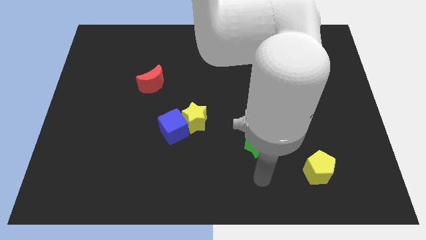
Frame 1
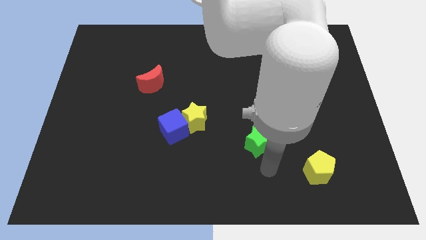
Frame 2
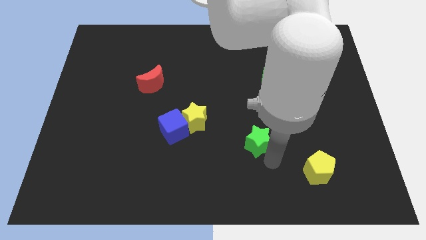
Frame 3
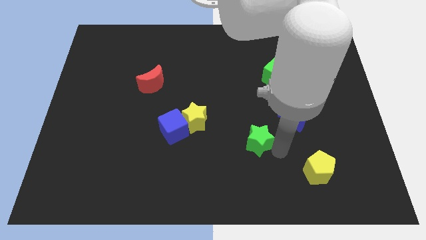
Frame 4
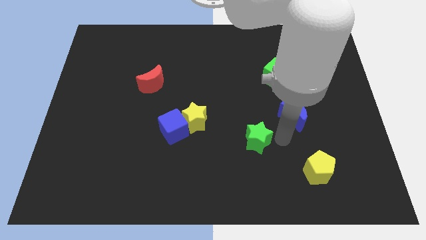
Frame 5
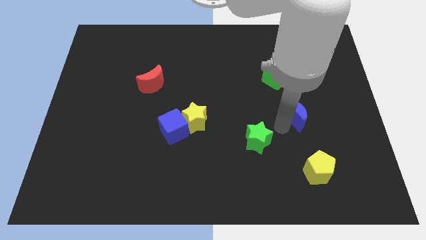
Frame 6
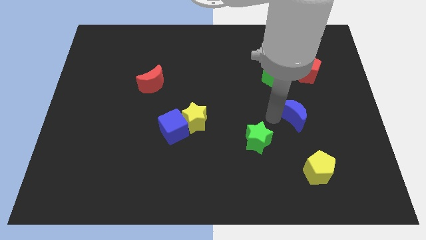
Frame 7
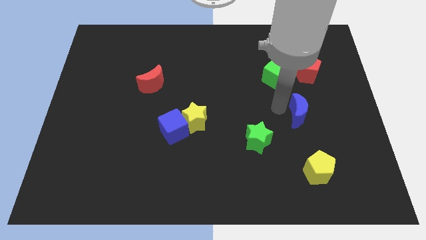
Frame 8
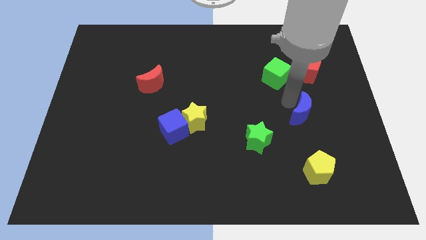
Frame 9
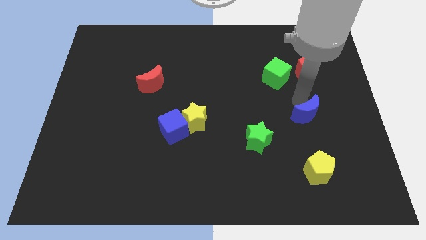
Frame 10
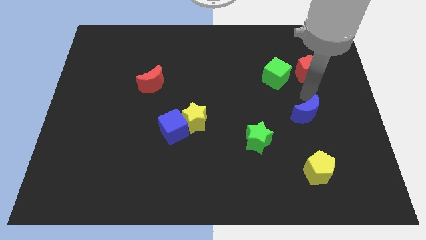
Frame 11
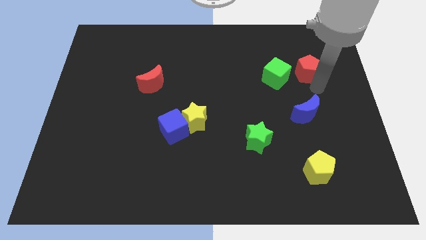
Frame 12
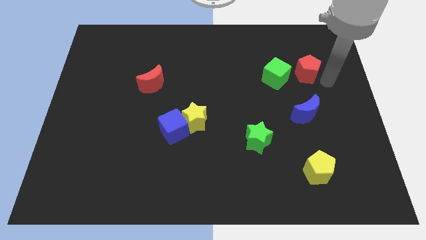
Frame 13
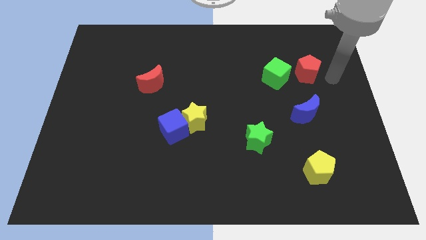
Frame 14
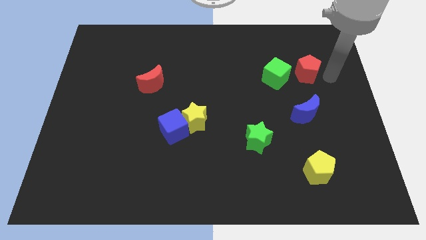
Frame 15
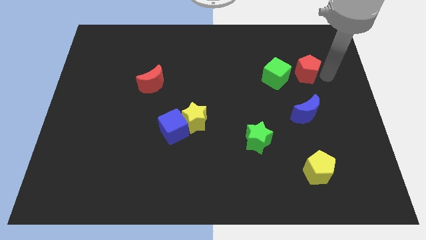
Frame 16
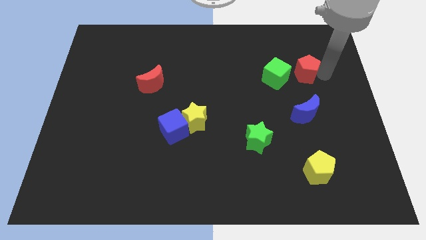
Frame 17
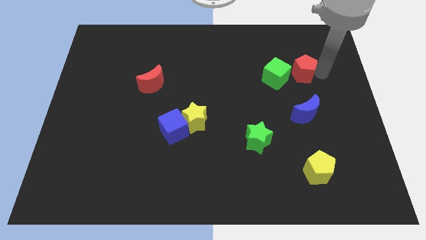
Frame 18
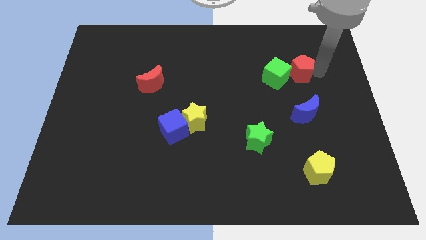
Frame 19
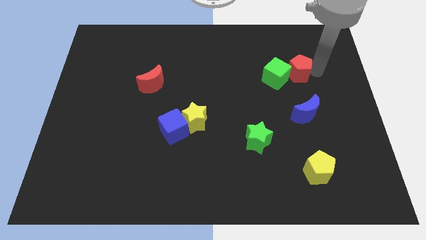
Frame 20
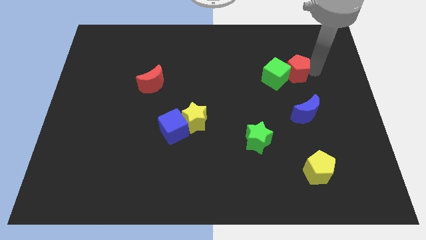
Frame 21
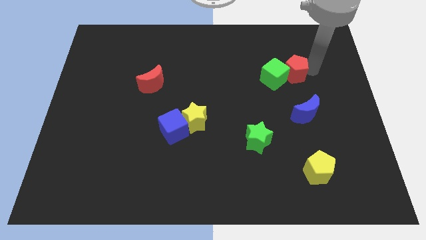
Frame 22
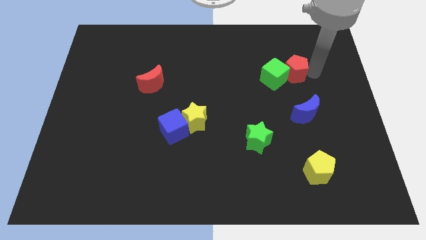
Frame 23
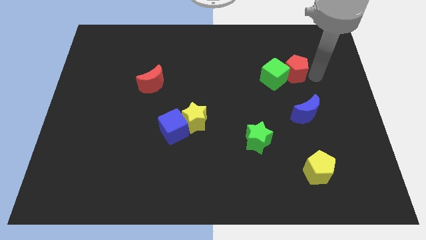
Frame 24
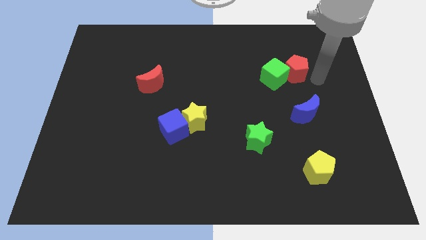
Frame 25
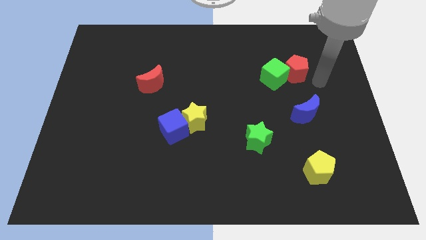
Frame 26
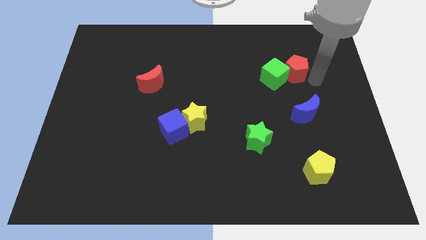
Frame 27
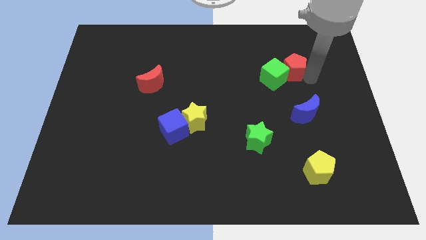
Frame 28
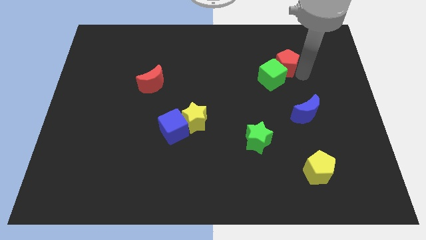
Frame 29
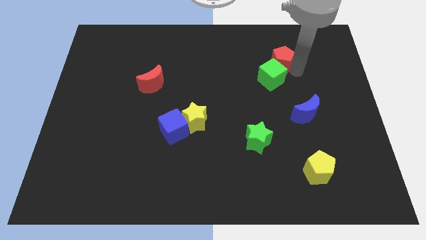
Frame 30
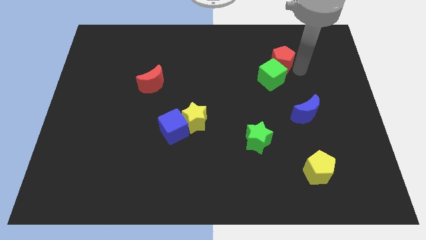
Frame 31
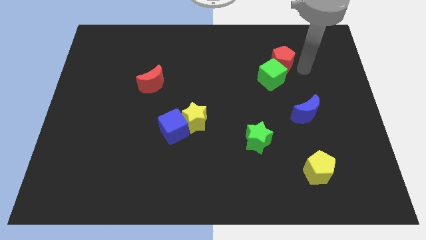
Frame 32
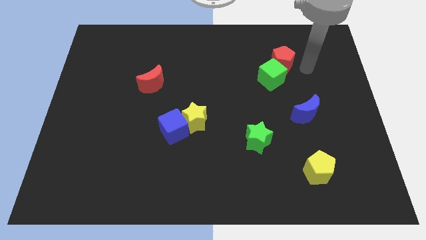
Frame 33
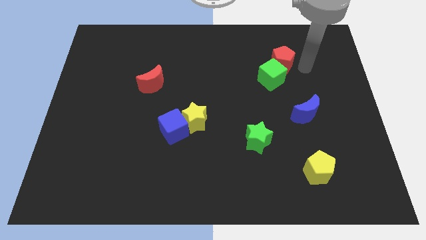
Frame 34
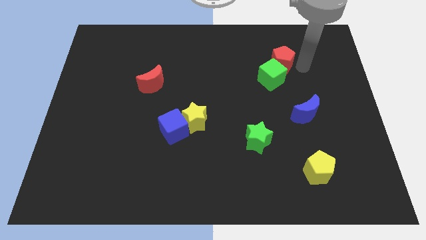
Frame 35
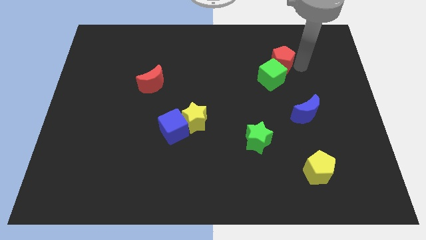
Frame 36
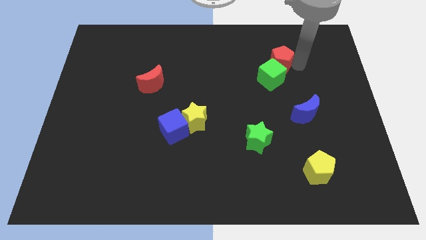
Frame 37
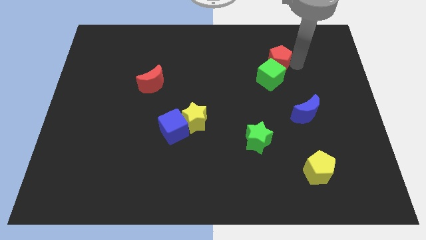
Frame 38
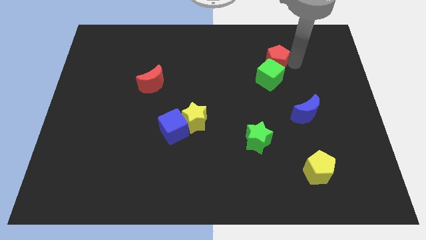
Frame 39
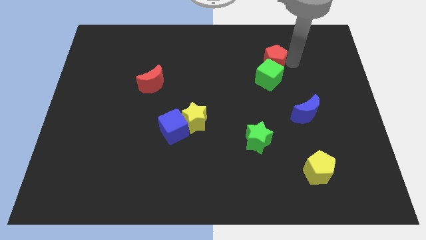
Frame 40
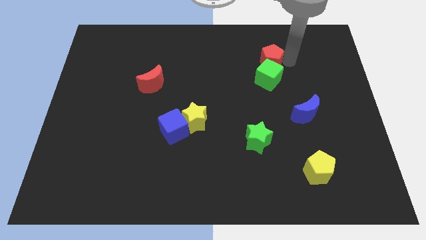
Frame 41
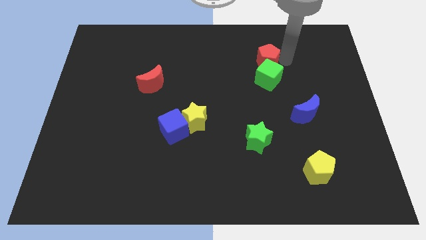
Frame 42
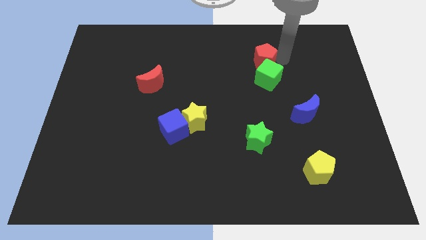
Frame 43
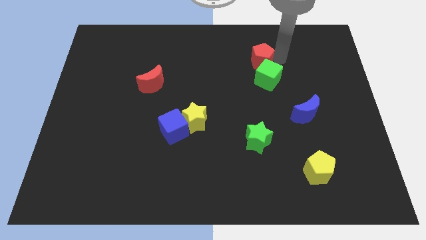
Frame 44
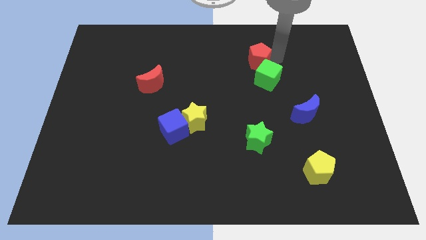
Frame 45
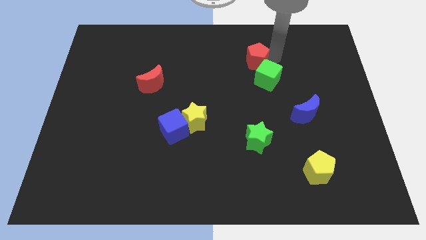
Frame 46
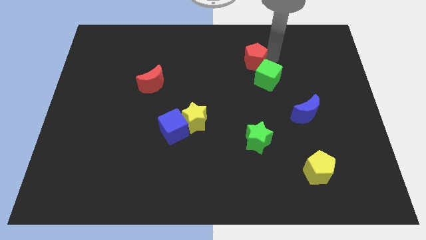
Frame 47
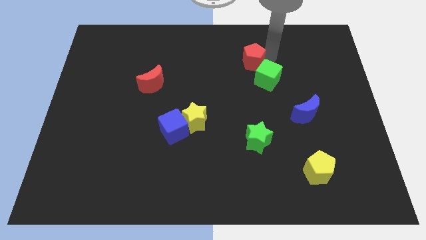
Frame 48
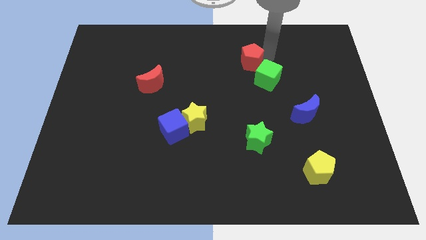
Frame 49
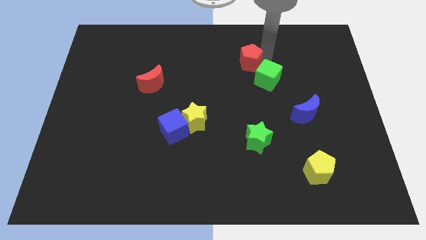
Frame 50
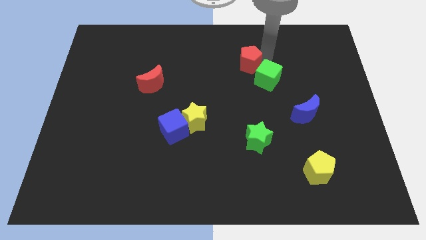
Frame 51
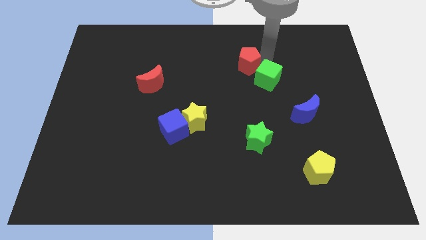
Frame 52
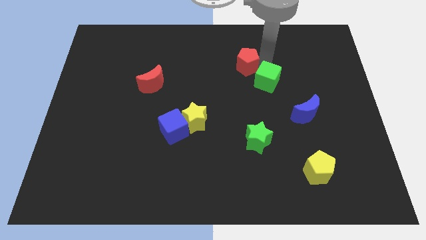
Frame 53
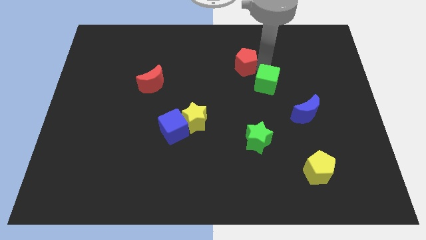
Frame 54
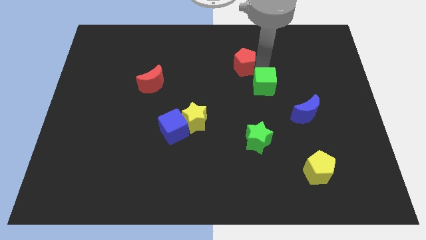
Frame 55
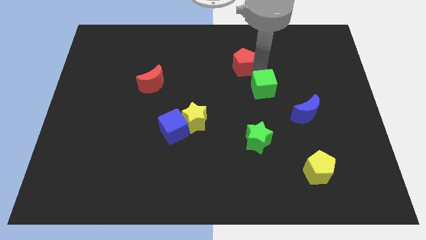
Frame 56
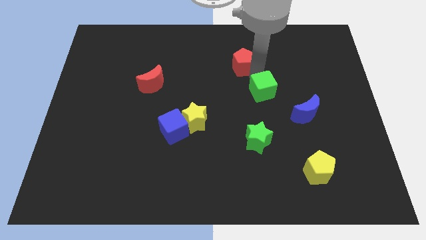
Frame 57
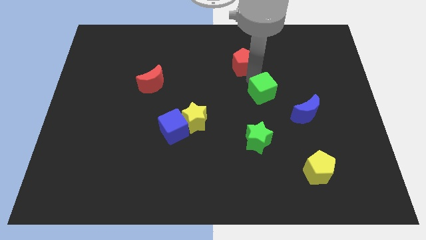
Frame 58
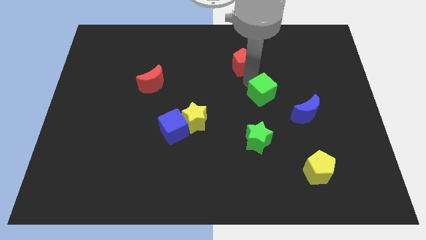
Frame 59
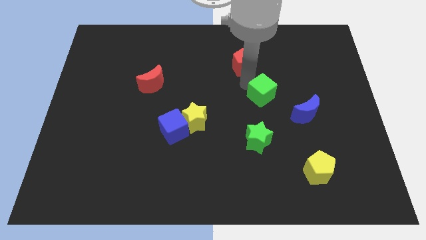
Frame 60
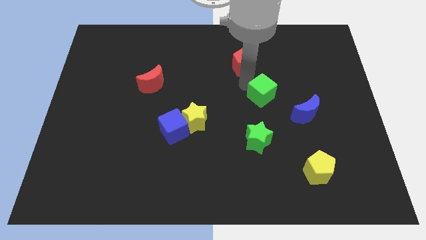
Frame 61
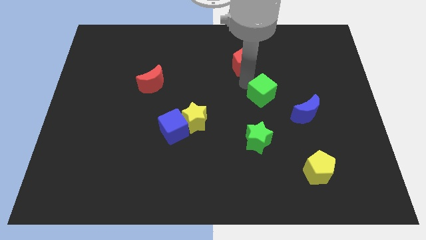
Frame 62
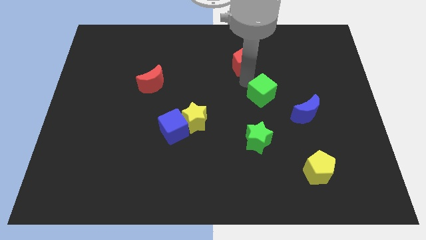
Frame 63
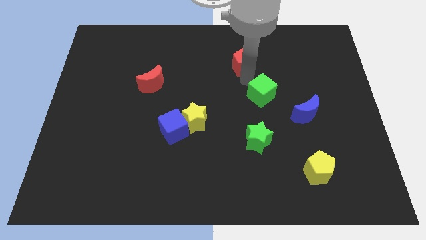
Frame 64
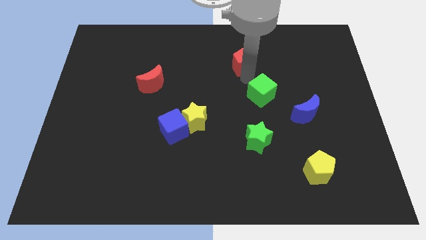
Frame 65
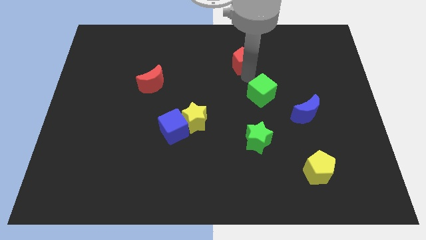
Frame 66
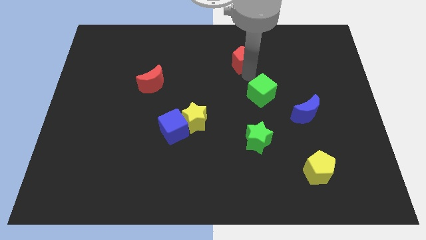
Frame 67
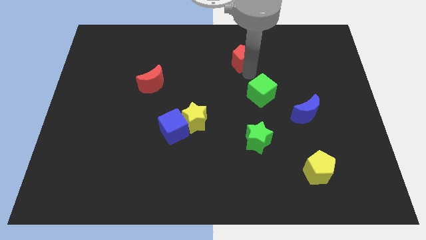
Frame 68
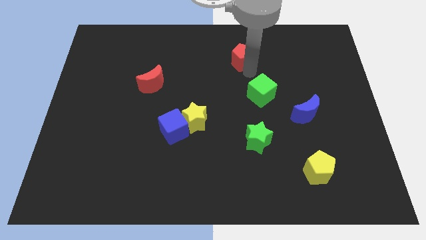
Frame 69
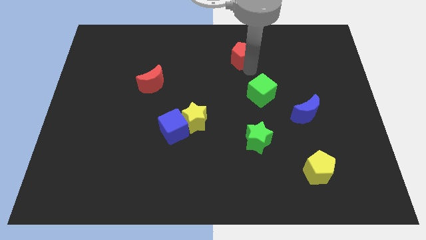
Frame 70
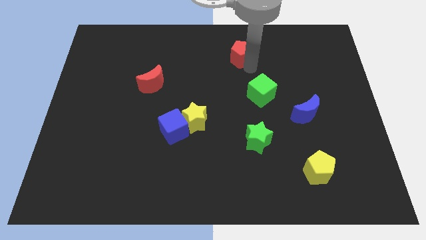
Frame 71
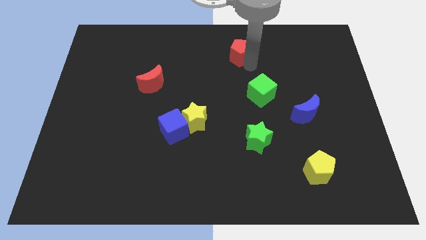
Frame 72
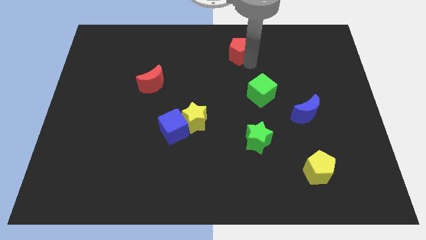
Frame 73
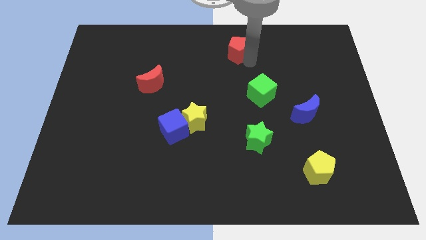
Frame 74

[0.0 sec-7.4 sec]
move the red pentagon to the top
